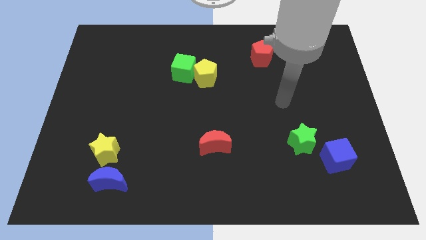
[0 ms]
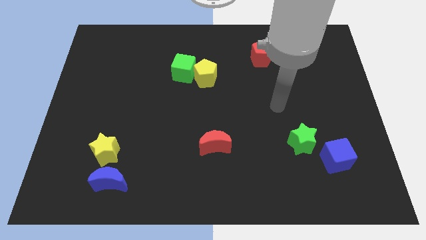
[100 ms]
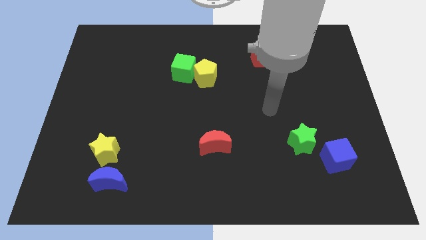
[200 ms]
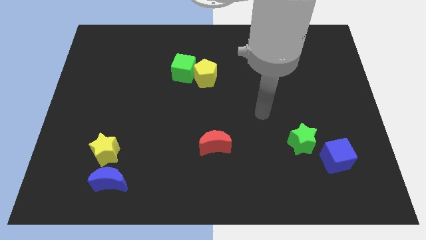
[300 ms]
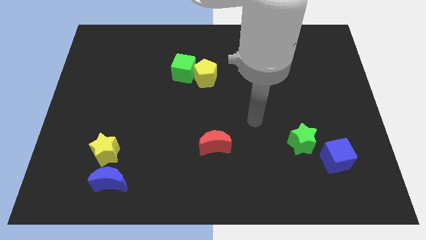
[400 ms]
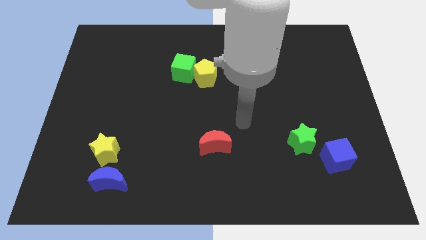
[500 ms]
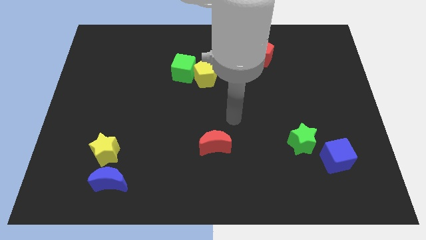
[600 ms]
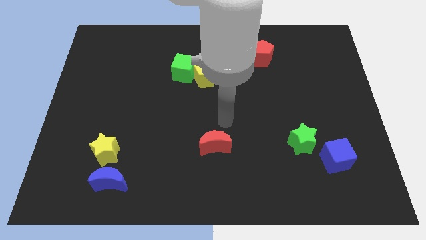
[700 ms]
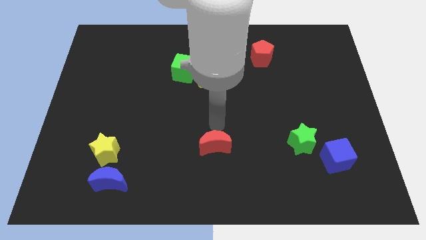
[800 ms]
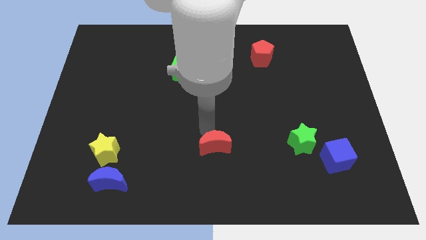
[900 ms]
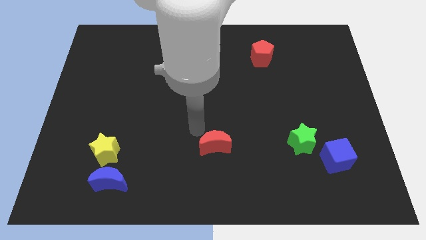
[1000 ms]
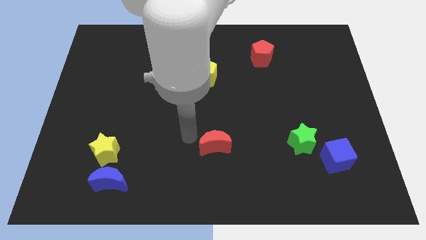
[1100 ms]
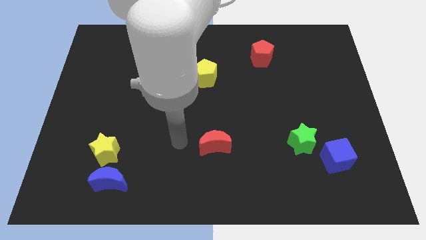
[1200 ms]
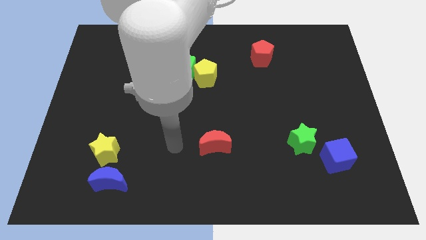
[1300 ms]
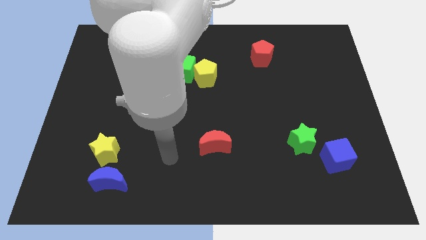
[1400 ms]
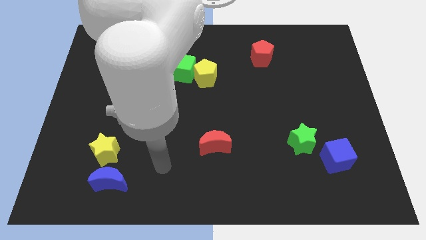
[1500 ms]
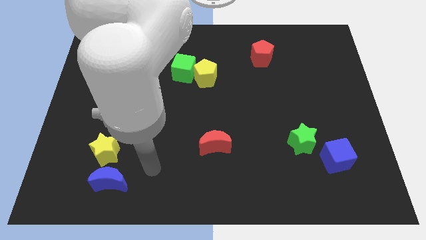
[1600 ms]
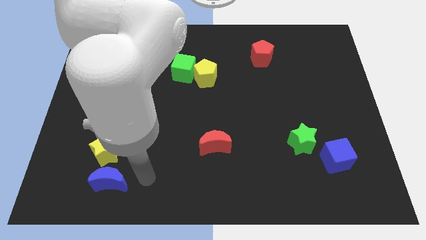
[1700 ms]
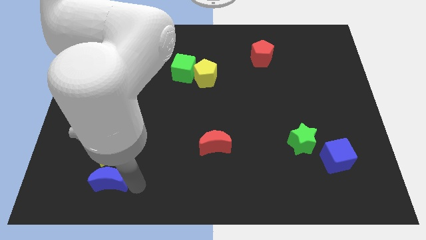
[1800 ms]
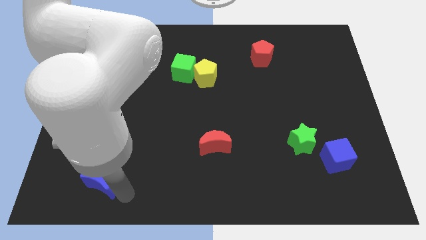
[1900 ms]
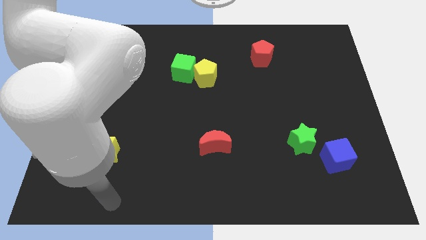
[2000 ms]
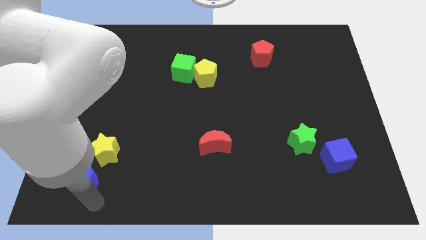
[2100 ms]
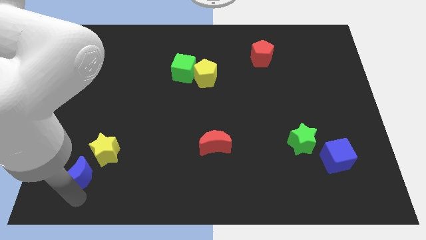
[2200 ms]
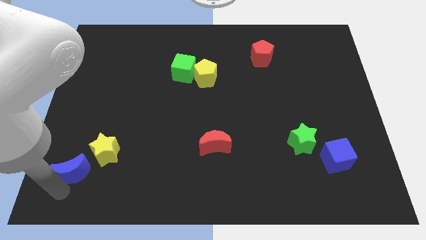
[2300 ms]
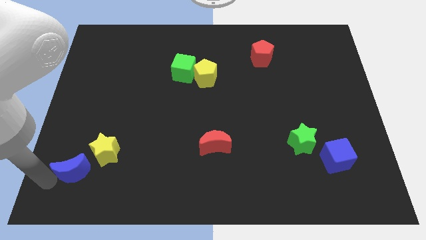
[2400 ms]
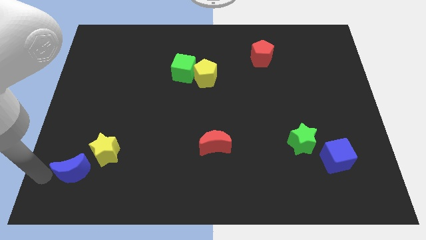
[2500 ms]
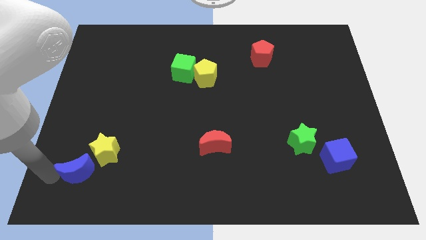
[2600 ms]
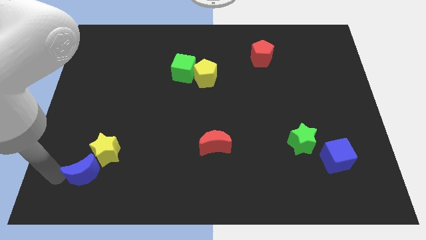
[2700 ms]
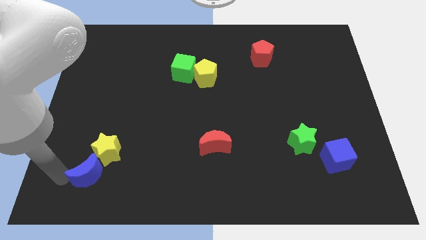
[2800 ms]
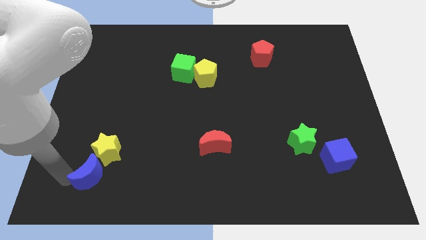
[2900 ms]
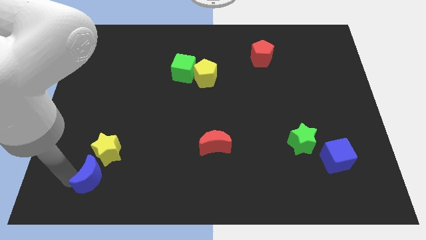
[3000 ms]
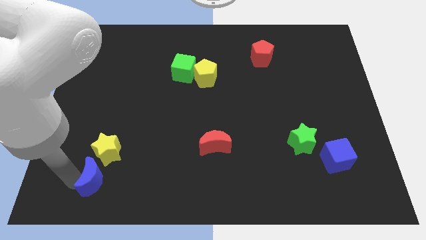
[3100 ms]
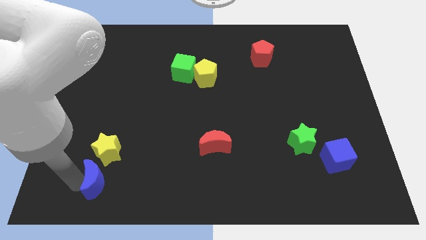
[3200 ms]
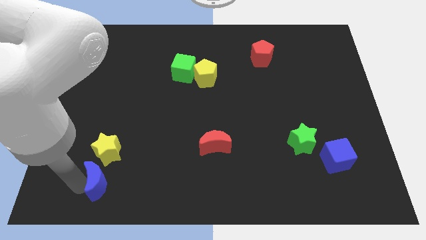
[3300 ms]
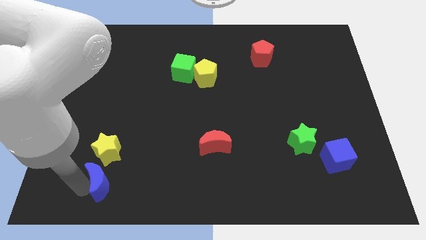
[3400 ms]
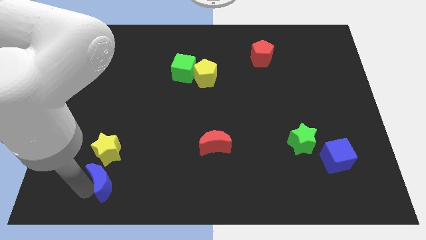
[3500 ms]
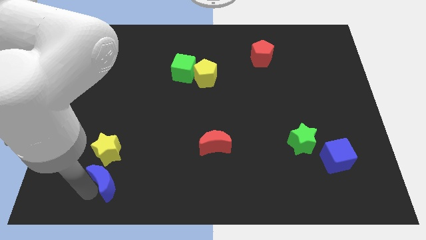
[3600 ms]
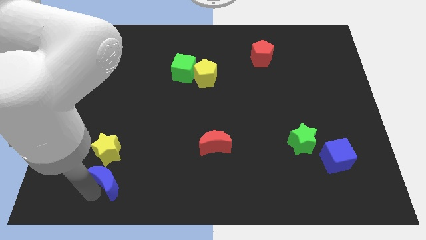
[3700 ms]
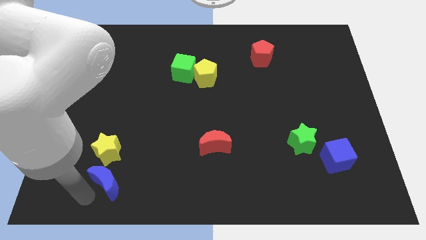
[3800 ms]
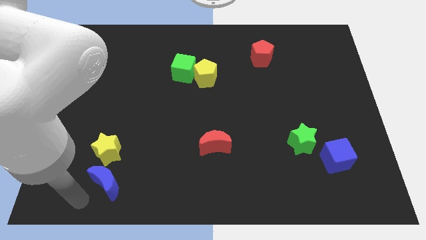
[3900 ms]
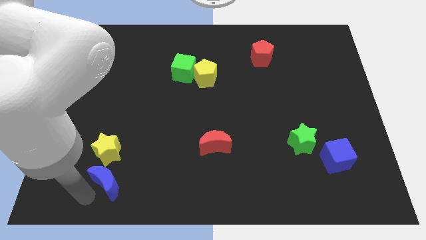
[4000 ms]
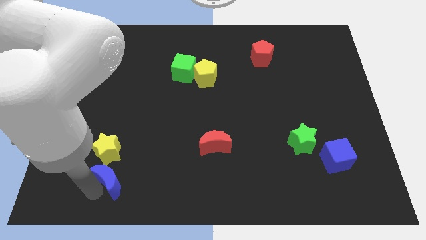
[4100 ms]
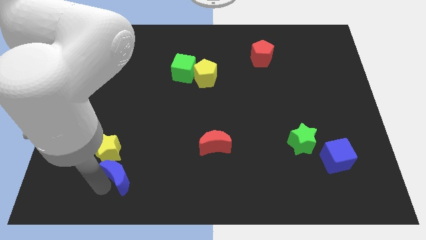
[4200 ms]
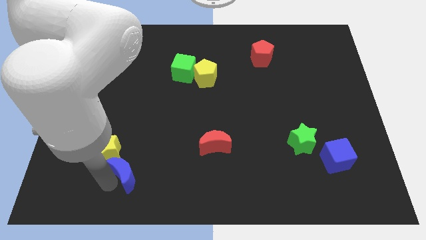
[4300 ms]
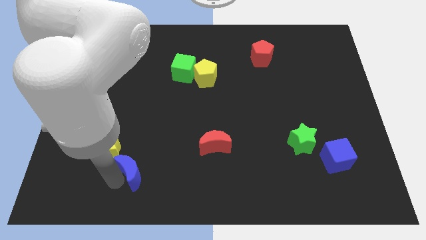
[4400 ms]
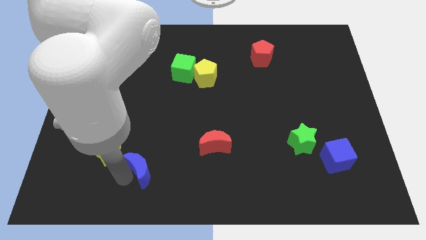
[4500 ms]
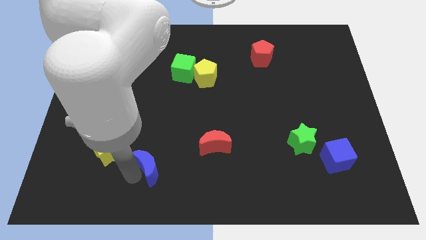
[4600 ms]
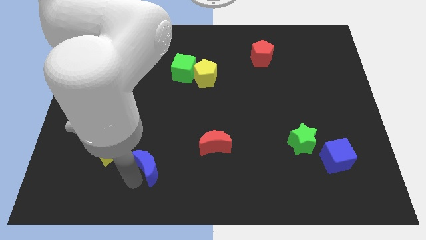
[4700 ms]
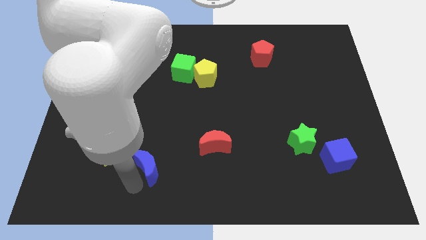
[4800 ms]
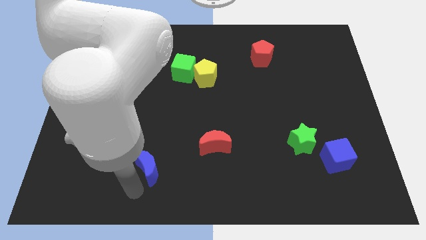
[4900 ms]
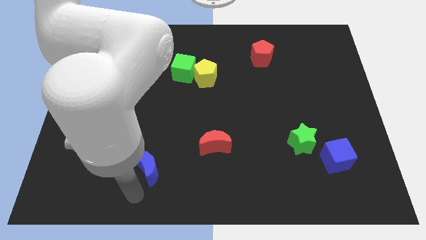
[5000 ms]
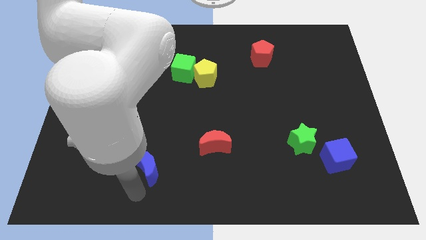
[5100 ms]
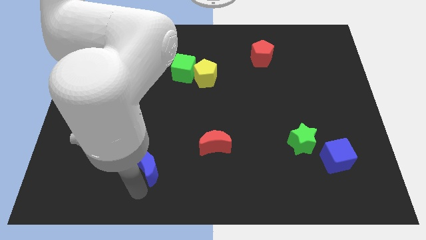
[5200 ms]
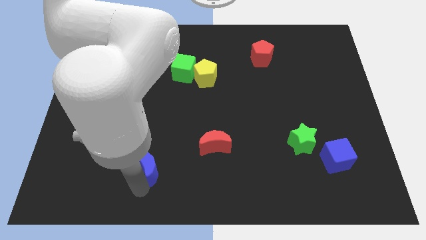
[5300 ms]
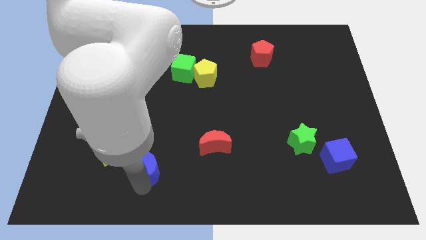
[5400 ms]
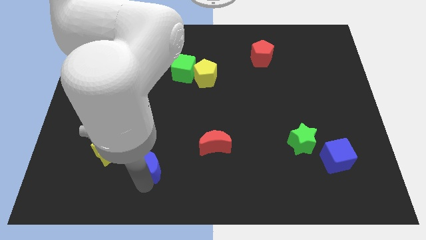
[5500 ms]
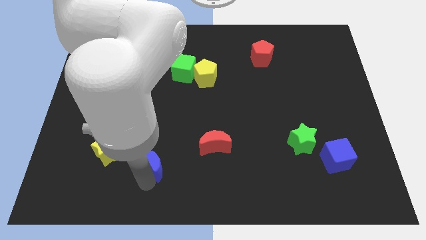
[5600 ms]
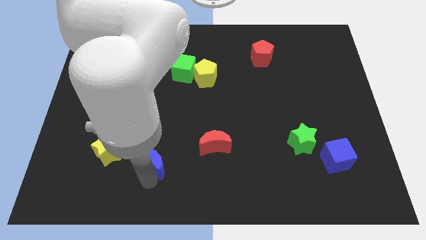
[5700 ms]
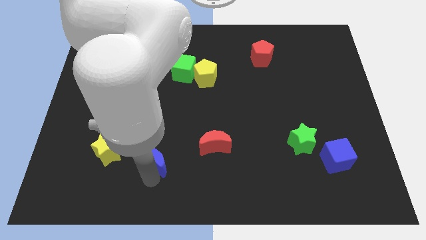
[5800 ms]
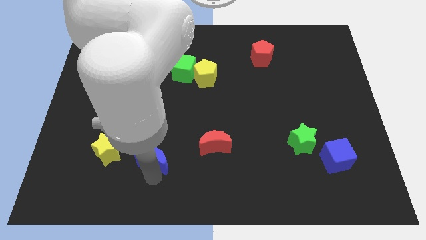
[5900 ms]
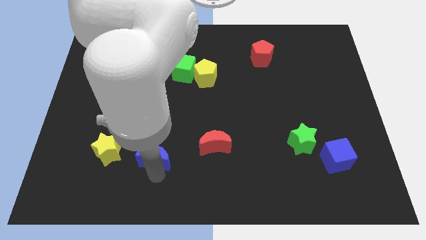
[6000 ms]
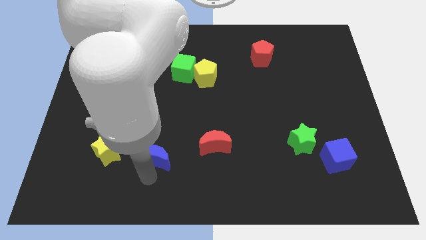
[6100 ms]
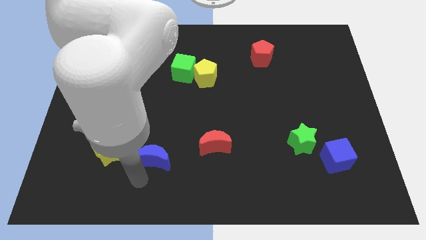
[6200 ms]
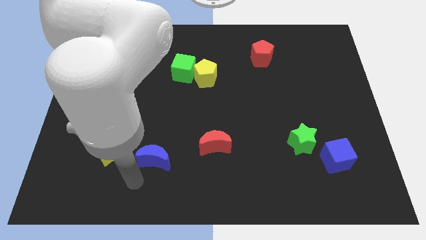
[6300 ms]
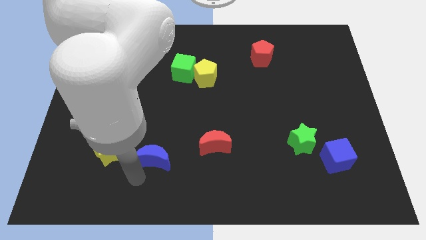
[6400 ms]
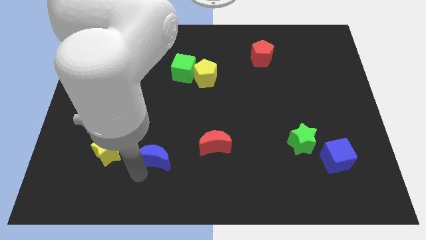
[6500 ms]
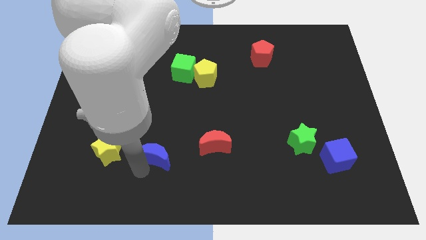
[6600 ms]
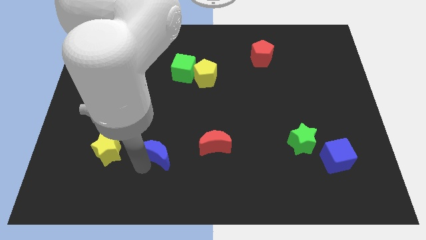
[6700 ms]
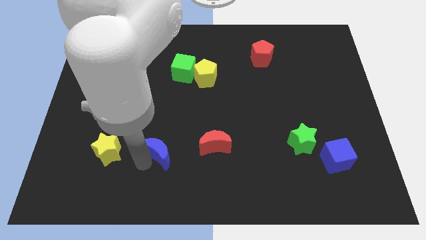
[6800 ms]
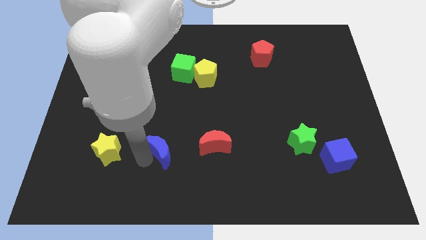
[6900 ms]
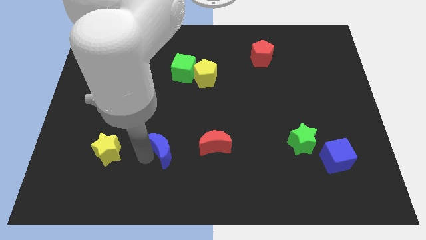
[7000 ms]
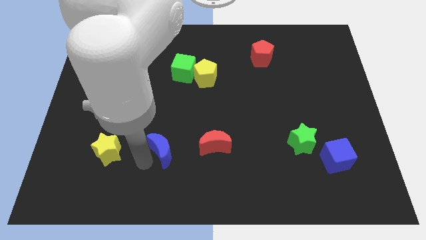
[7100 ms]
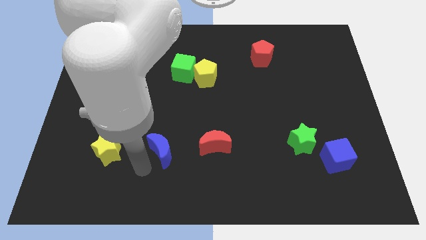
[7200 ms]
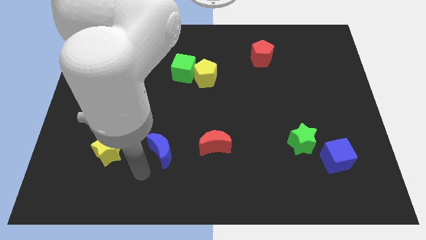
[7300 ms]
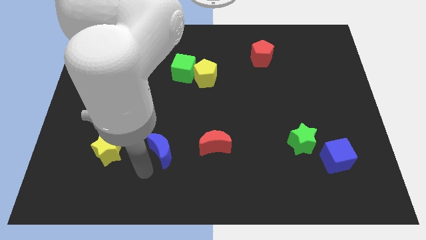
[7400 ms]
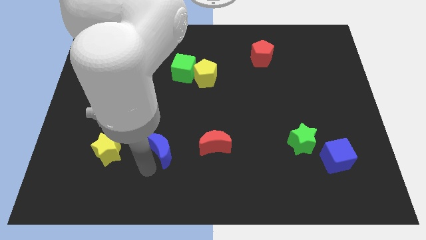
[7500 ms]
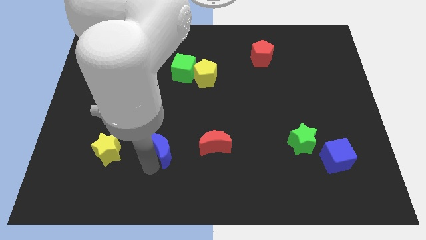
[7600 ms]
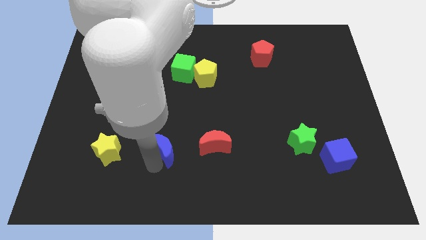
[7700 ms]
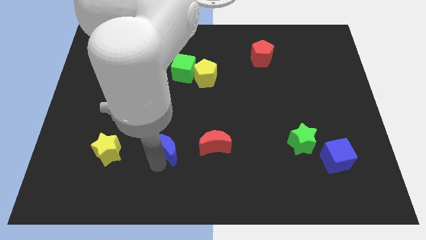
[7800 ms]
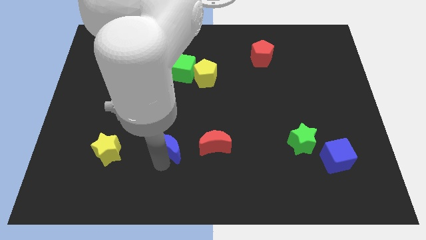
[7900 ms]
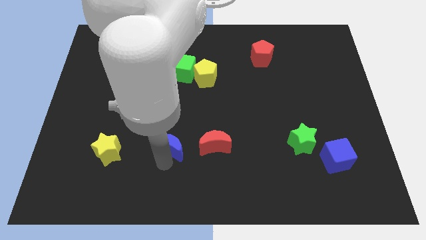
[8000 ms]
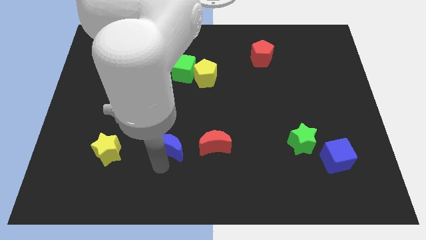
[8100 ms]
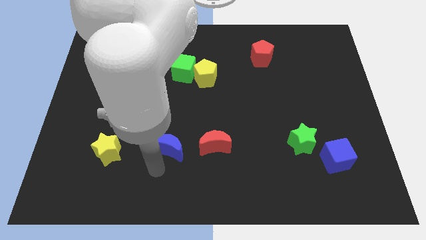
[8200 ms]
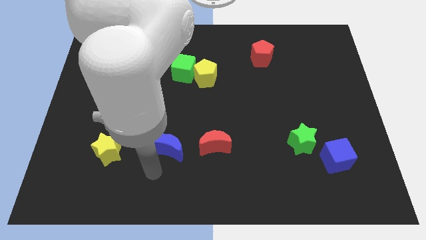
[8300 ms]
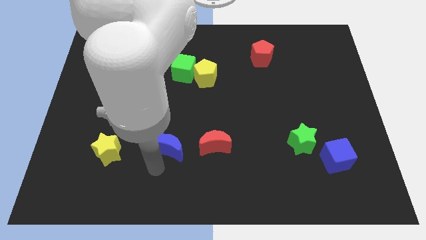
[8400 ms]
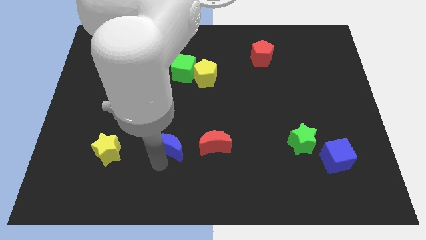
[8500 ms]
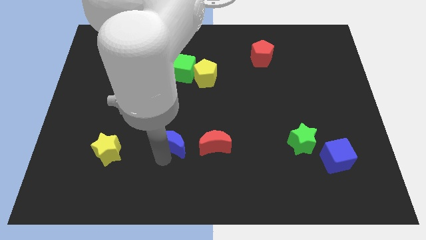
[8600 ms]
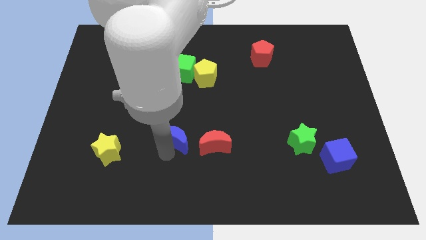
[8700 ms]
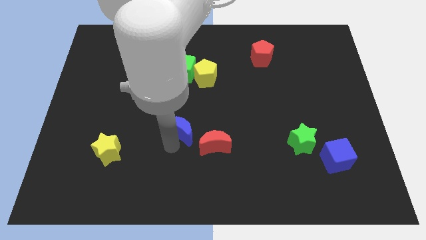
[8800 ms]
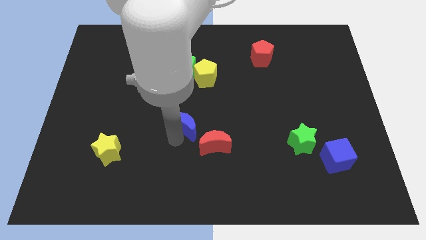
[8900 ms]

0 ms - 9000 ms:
move the blue moon upwards and right
